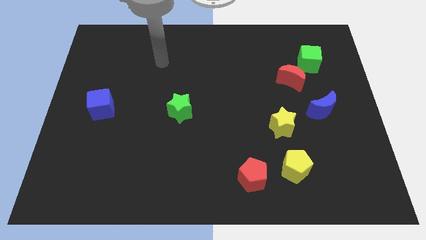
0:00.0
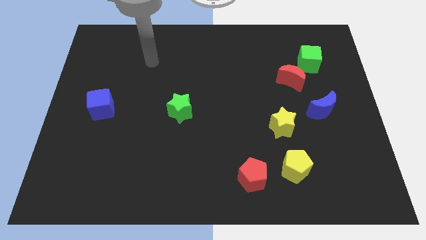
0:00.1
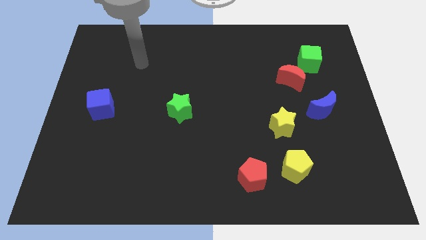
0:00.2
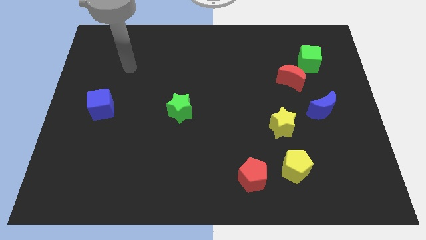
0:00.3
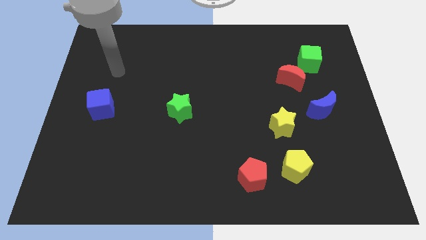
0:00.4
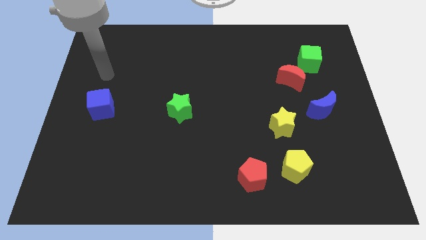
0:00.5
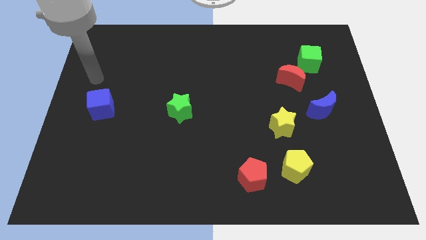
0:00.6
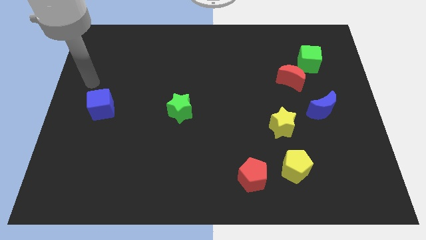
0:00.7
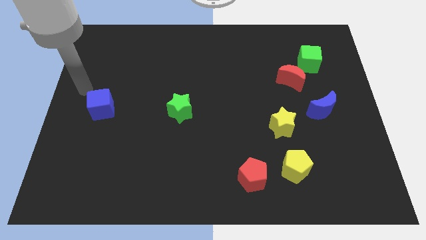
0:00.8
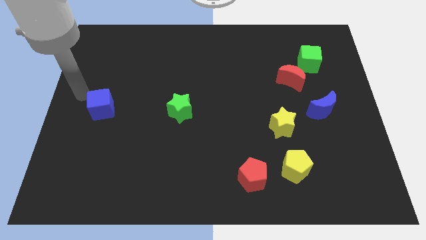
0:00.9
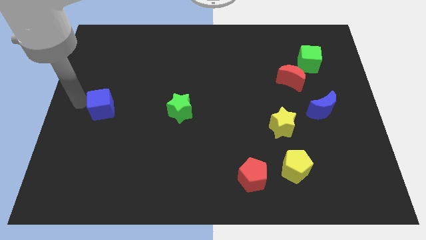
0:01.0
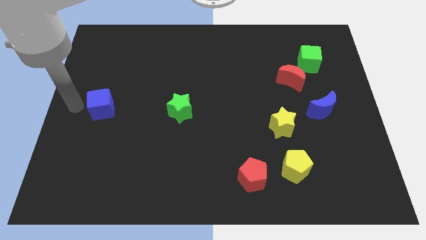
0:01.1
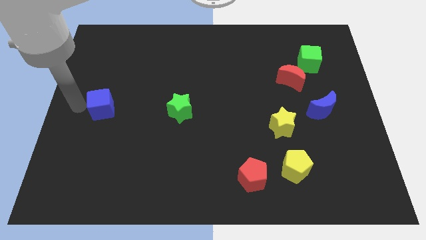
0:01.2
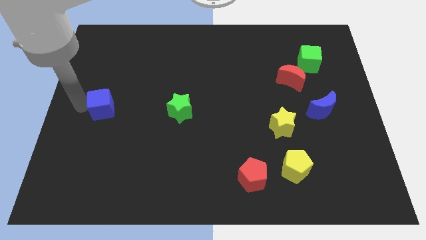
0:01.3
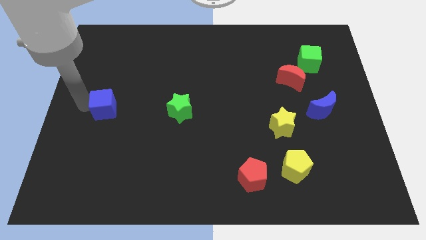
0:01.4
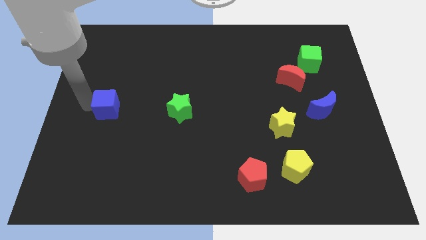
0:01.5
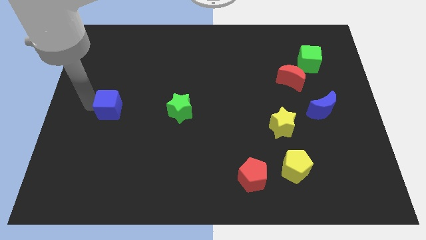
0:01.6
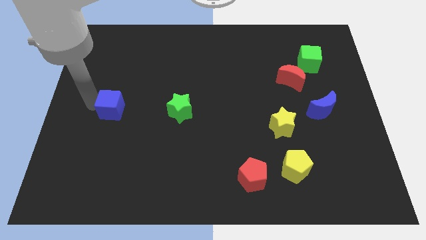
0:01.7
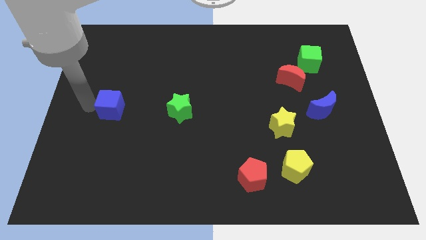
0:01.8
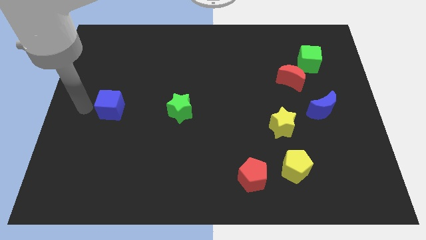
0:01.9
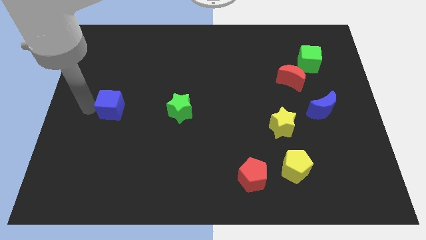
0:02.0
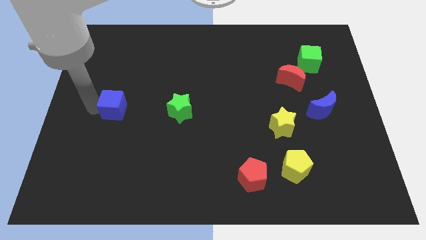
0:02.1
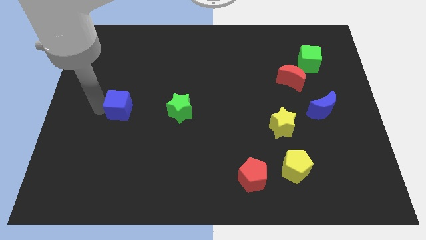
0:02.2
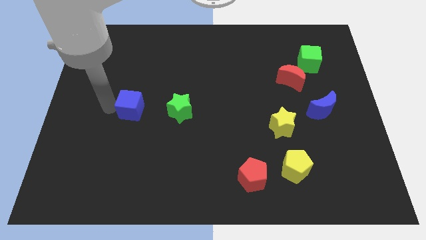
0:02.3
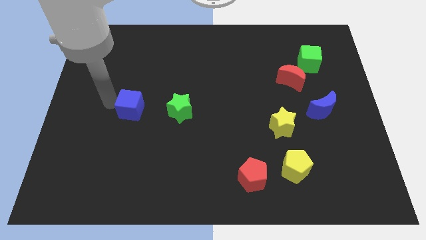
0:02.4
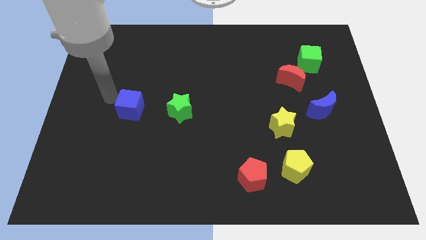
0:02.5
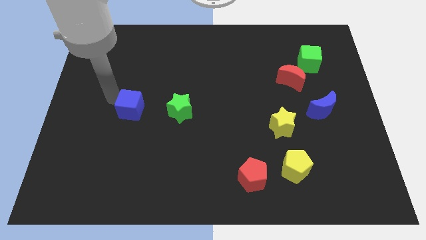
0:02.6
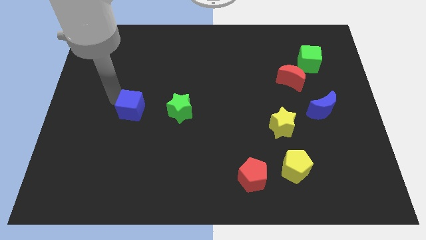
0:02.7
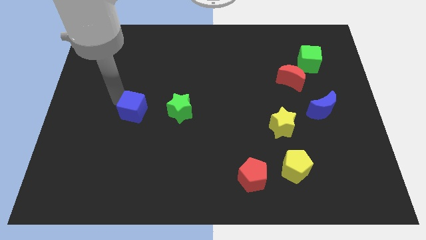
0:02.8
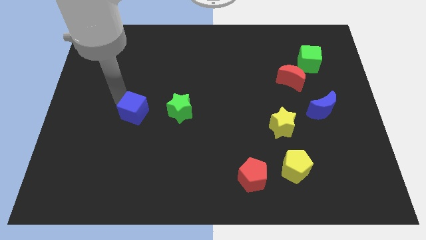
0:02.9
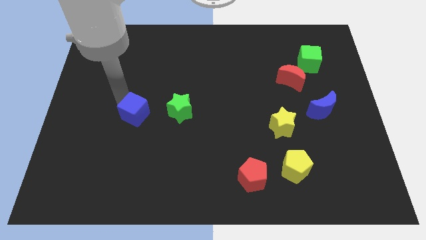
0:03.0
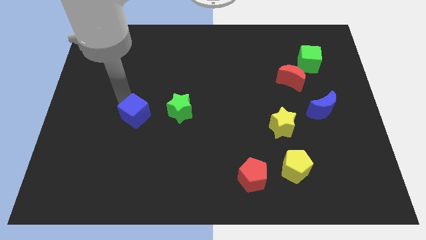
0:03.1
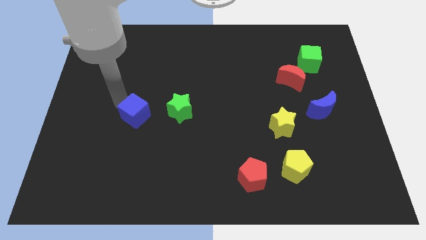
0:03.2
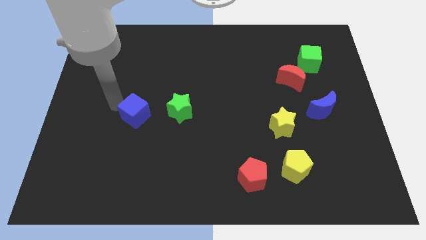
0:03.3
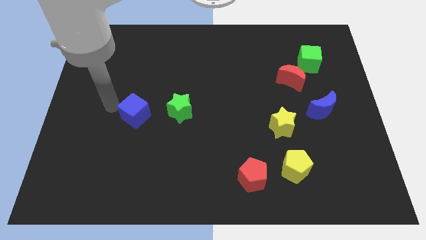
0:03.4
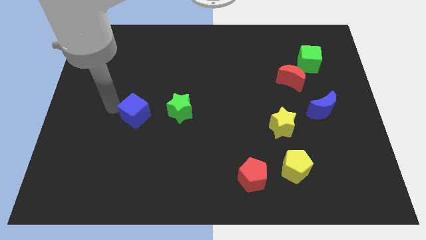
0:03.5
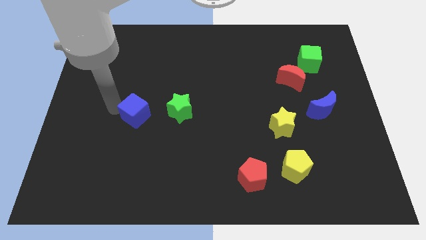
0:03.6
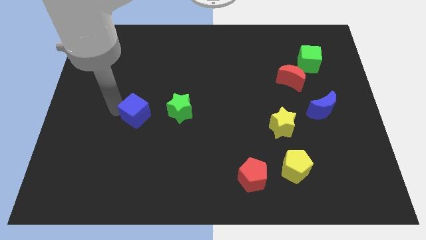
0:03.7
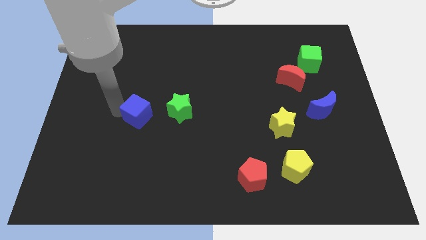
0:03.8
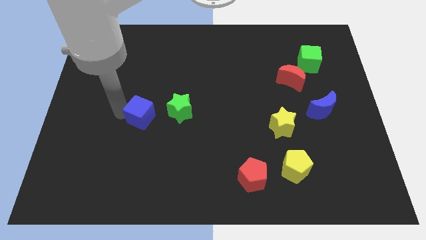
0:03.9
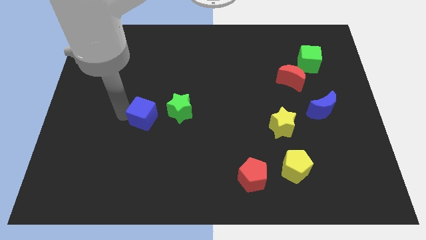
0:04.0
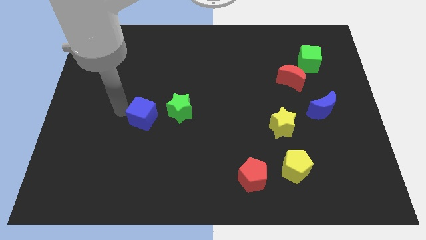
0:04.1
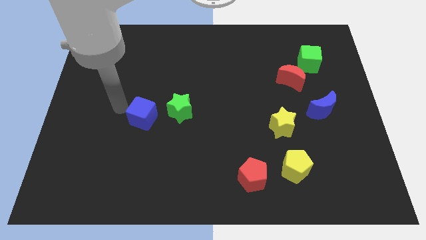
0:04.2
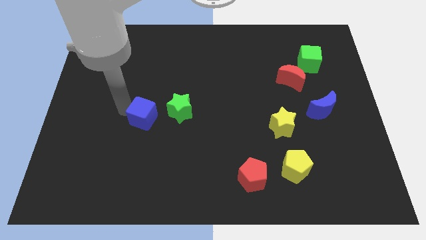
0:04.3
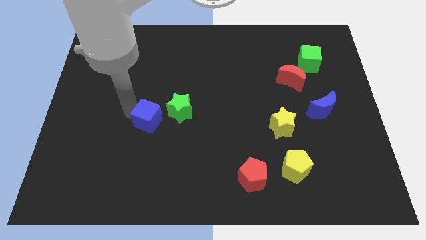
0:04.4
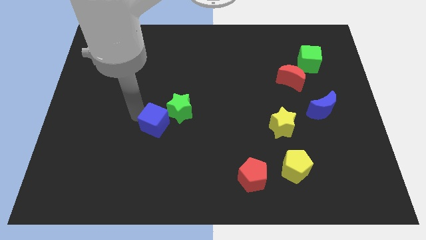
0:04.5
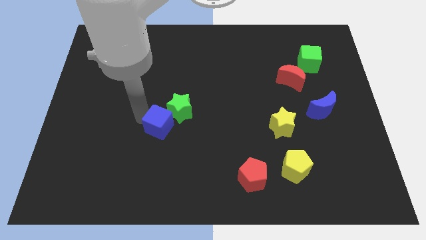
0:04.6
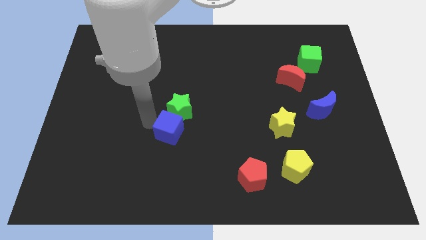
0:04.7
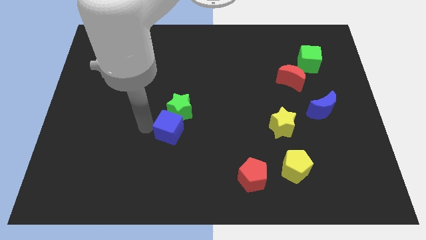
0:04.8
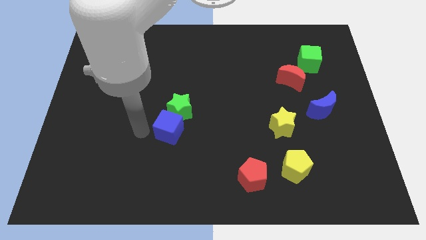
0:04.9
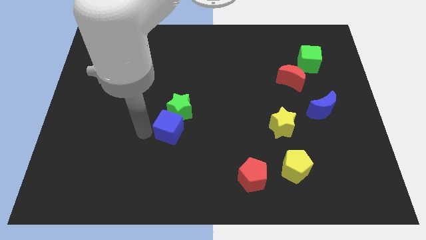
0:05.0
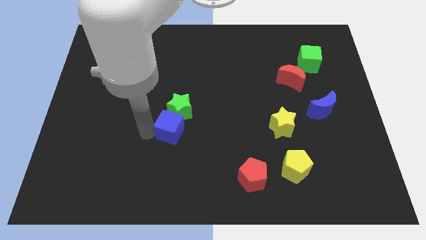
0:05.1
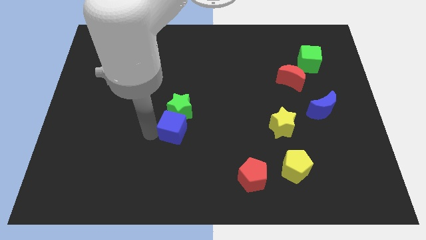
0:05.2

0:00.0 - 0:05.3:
push the blue cube to the bottom right side of the green star

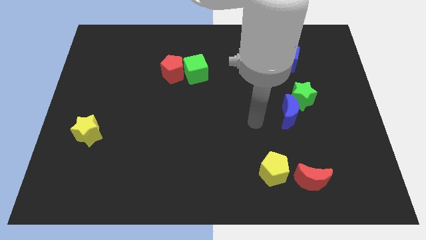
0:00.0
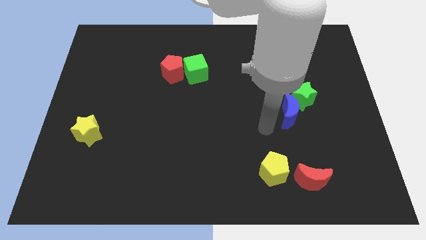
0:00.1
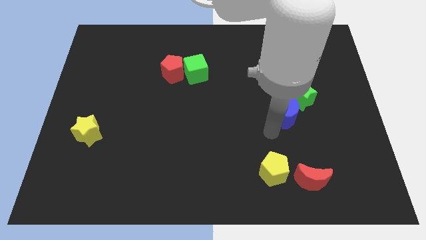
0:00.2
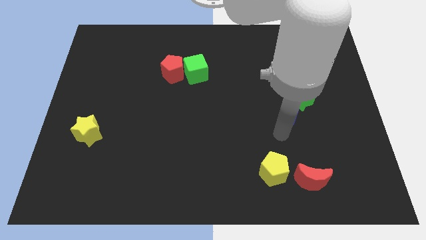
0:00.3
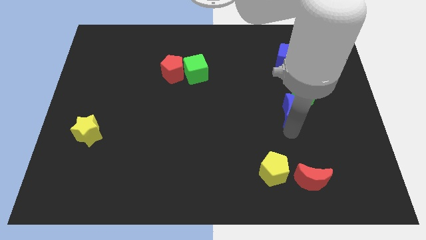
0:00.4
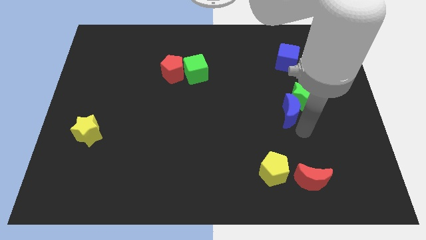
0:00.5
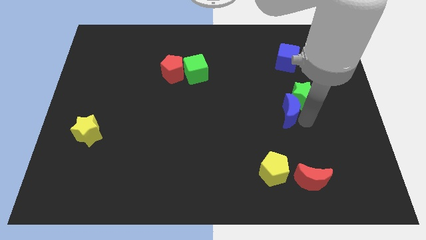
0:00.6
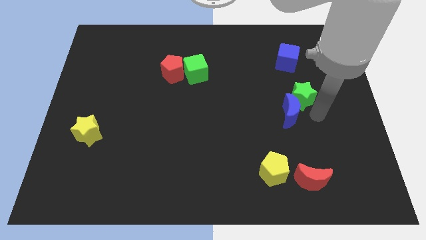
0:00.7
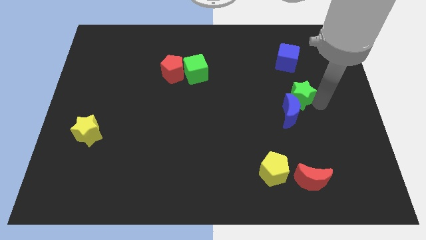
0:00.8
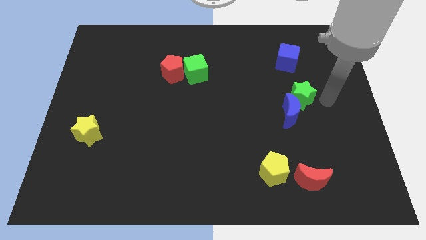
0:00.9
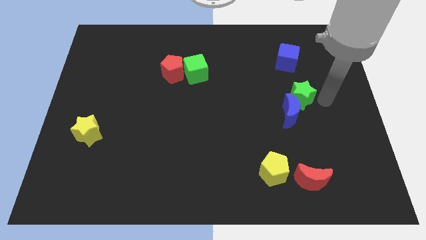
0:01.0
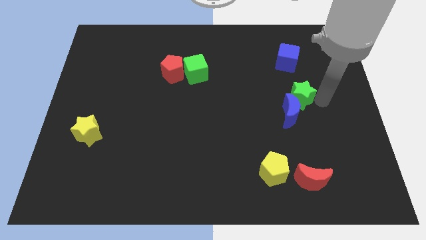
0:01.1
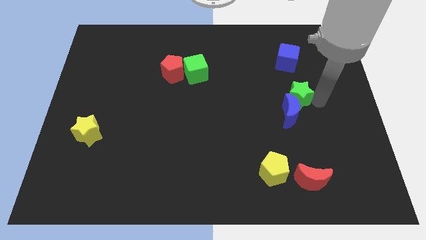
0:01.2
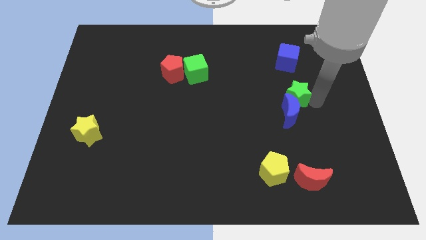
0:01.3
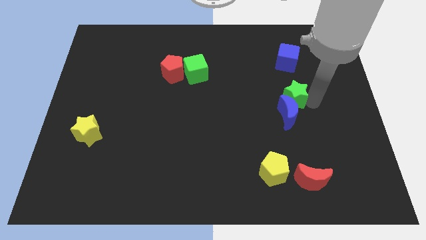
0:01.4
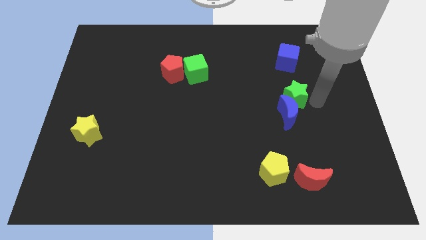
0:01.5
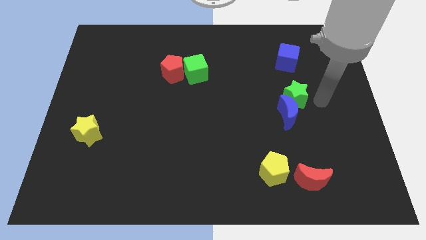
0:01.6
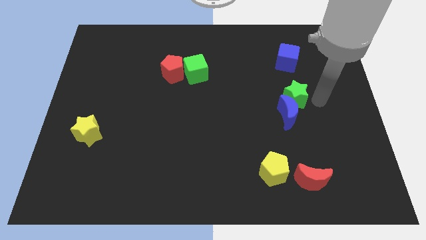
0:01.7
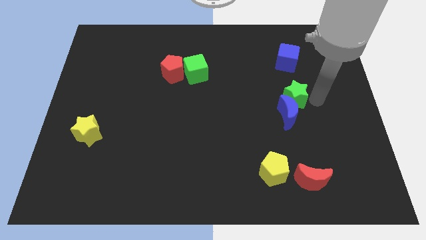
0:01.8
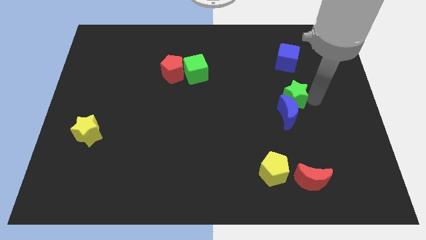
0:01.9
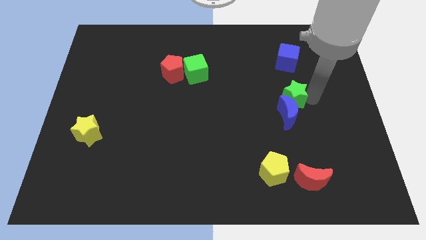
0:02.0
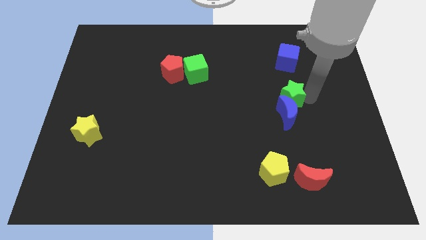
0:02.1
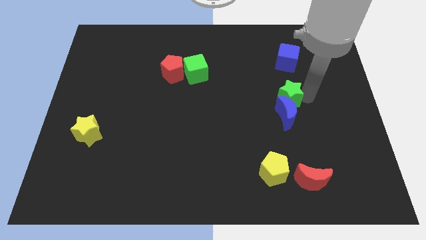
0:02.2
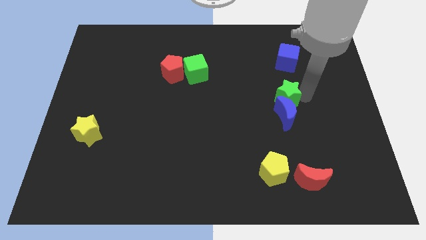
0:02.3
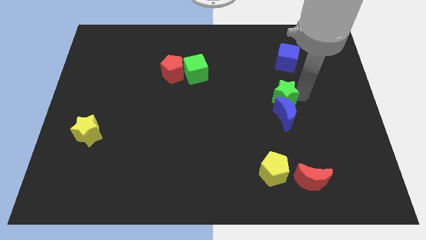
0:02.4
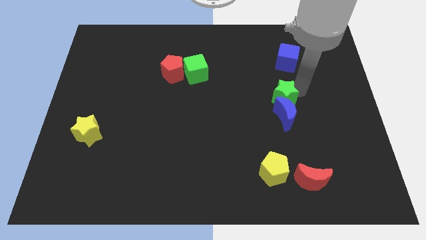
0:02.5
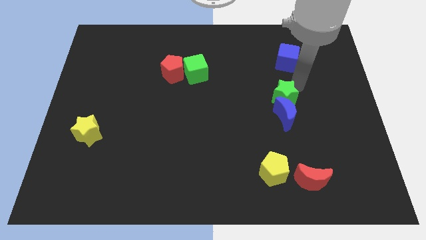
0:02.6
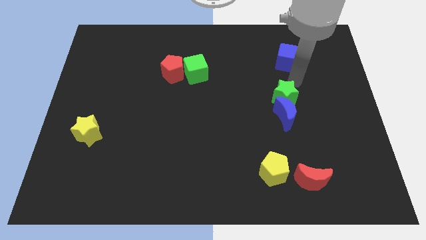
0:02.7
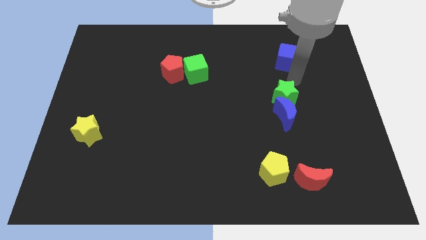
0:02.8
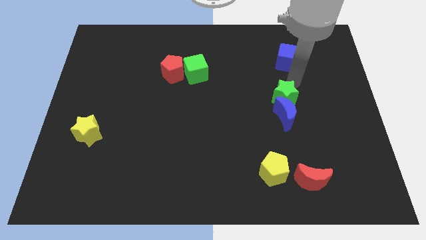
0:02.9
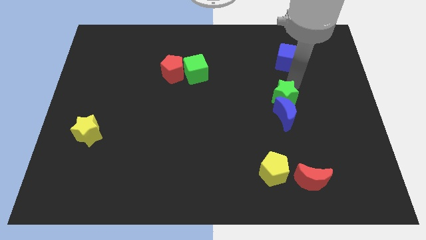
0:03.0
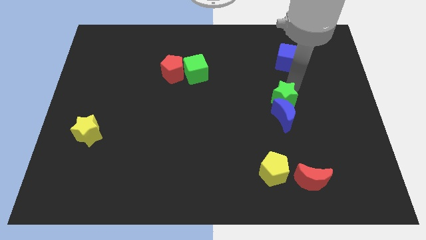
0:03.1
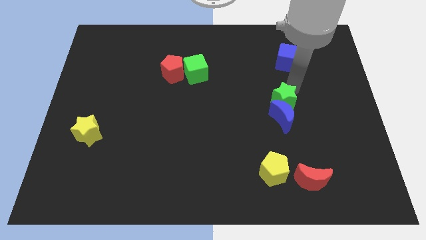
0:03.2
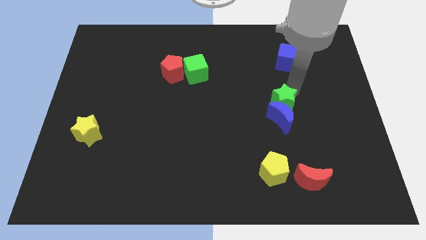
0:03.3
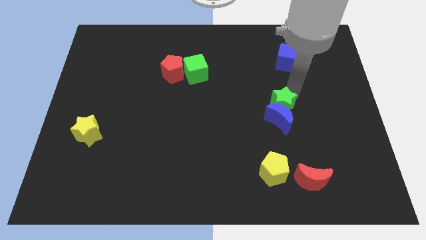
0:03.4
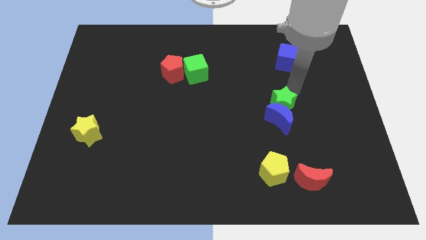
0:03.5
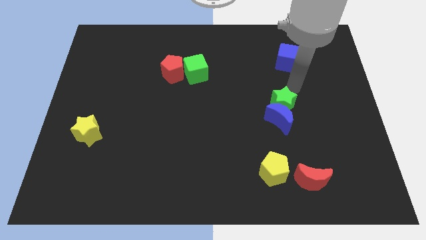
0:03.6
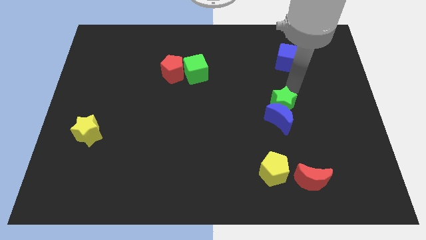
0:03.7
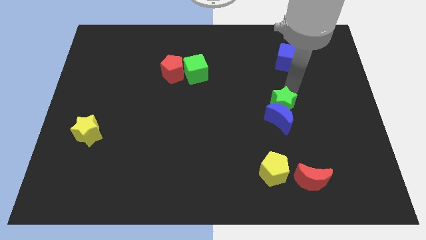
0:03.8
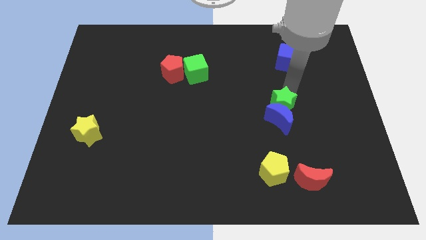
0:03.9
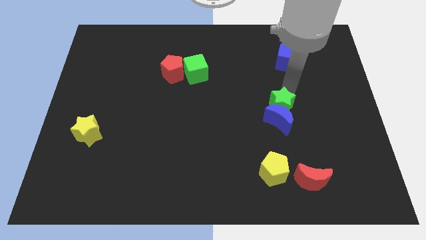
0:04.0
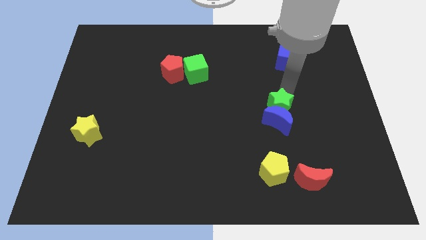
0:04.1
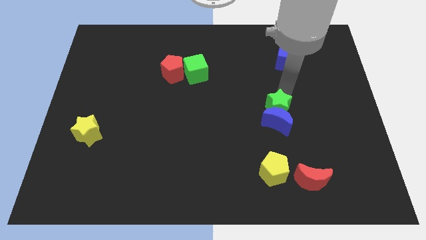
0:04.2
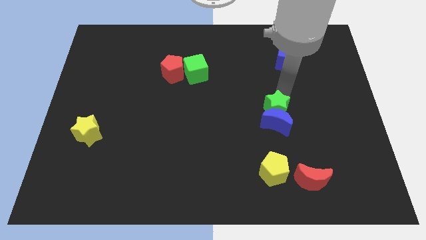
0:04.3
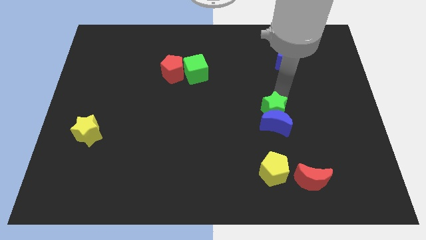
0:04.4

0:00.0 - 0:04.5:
move the green star to the top side of the yellow pentagon
